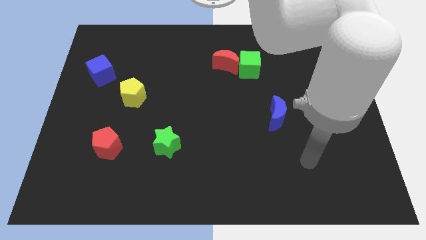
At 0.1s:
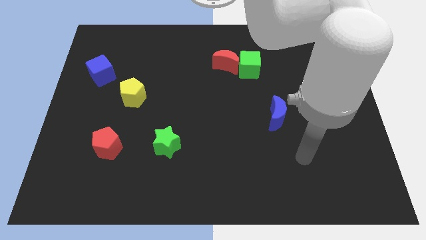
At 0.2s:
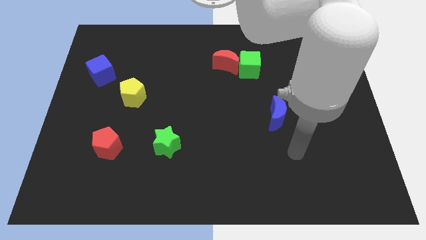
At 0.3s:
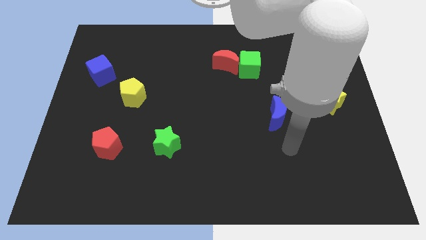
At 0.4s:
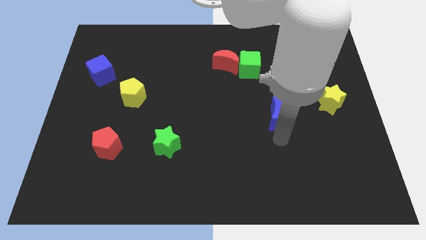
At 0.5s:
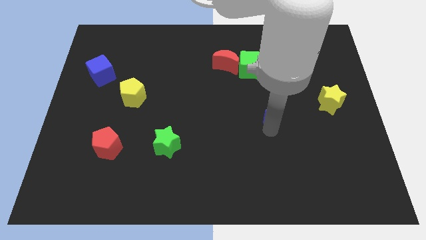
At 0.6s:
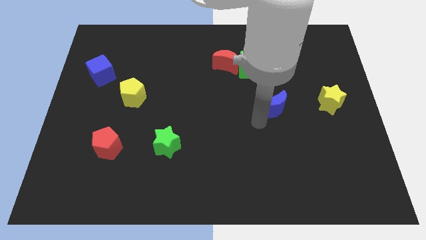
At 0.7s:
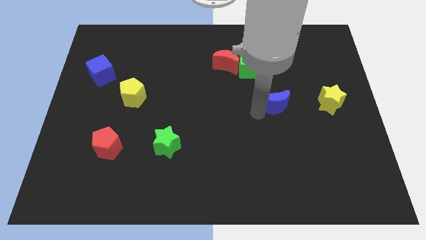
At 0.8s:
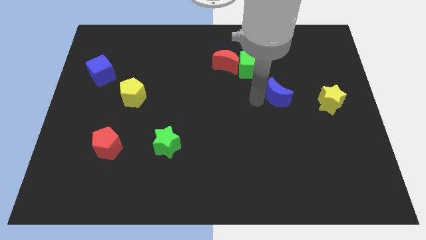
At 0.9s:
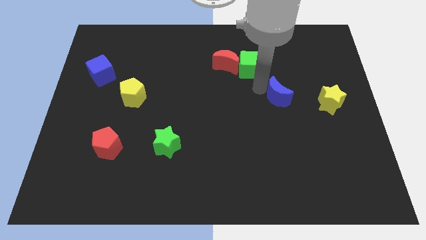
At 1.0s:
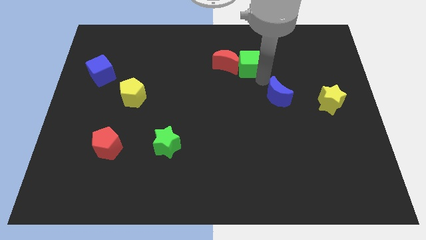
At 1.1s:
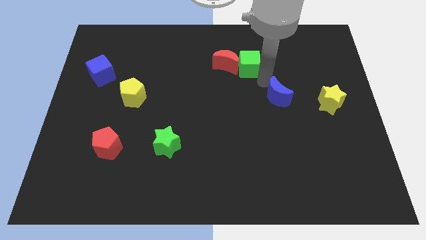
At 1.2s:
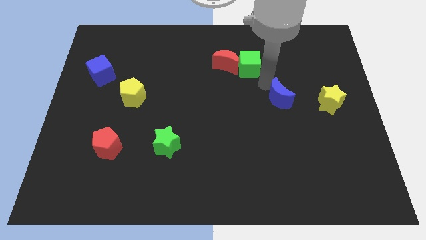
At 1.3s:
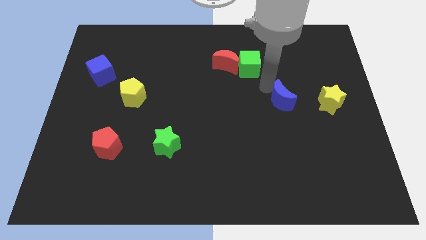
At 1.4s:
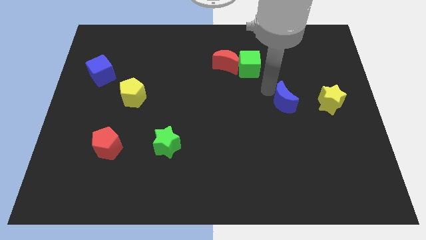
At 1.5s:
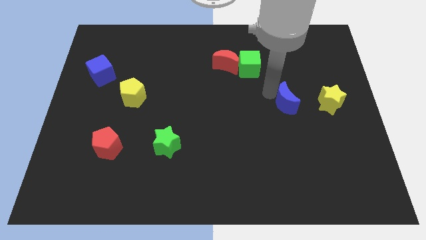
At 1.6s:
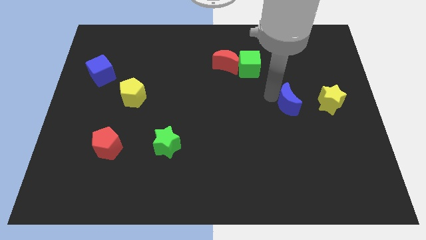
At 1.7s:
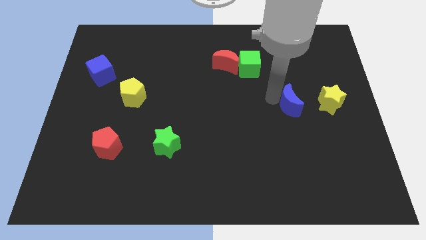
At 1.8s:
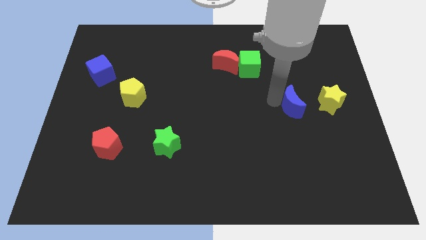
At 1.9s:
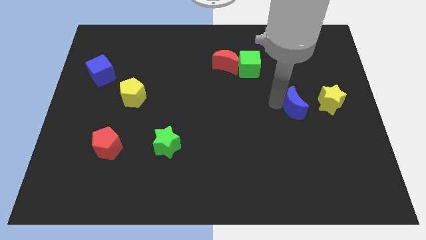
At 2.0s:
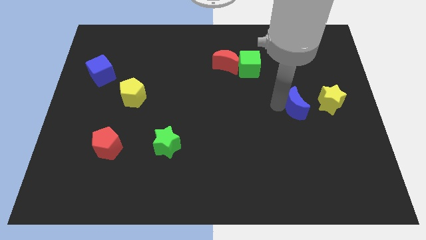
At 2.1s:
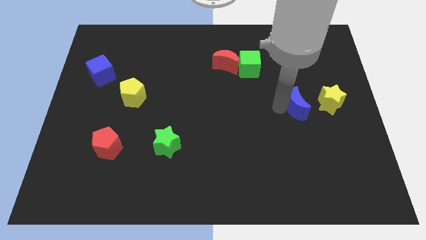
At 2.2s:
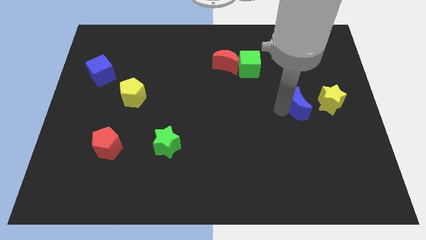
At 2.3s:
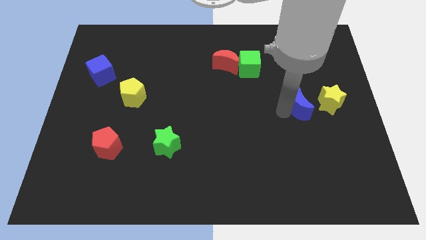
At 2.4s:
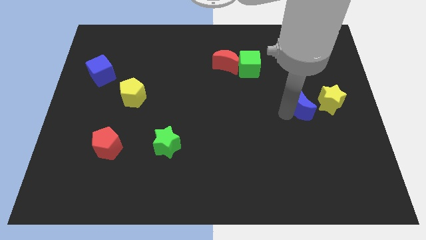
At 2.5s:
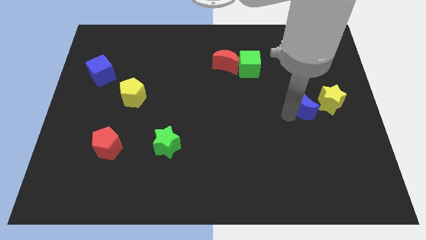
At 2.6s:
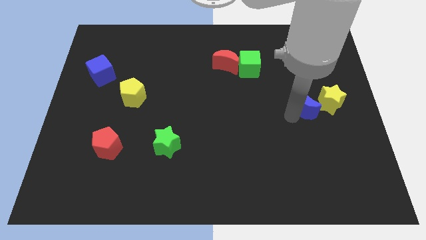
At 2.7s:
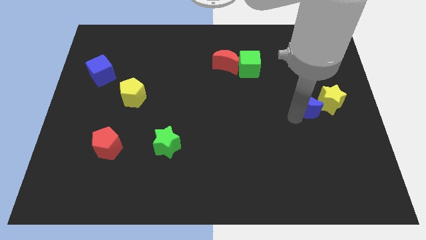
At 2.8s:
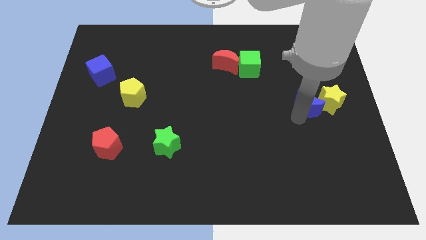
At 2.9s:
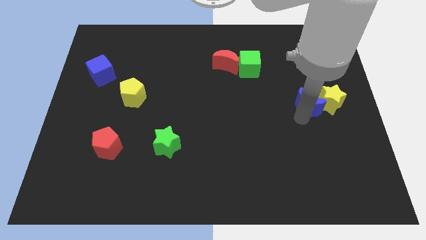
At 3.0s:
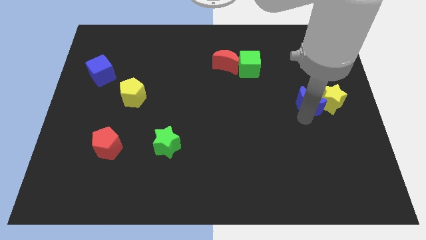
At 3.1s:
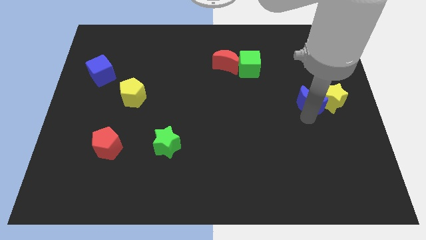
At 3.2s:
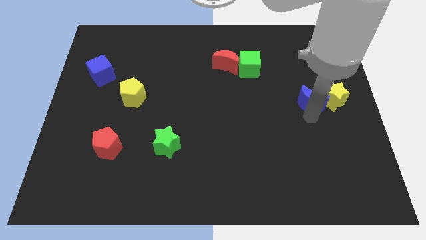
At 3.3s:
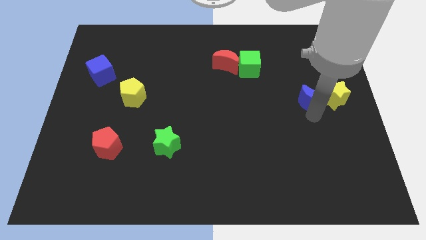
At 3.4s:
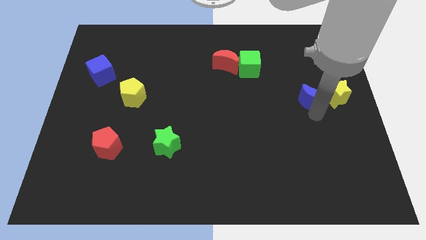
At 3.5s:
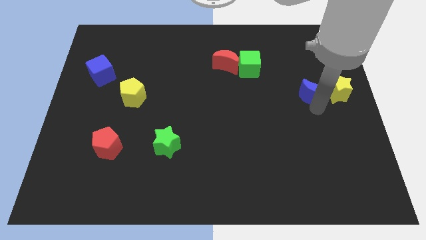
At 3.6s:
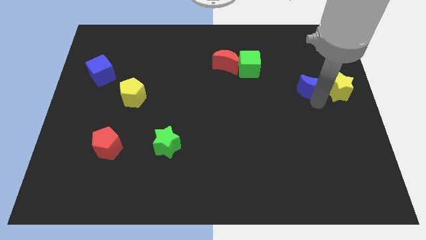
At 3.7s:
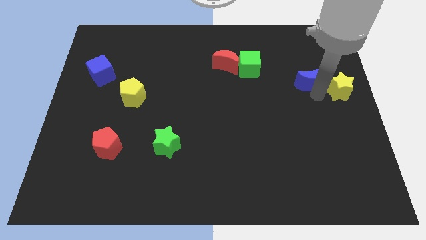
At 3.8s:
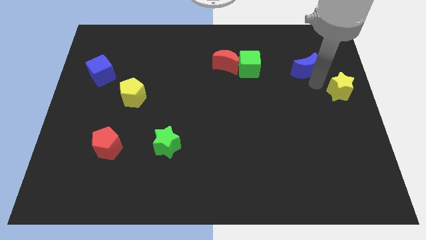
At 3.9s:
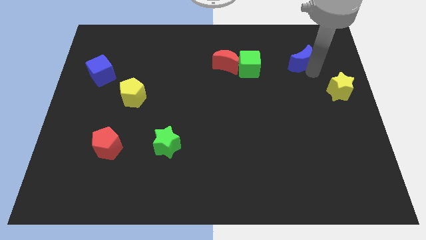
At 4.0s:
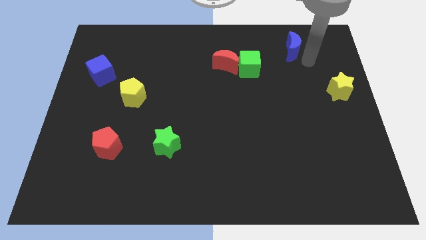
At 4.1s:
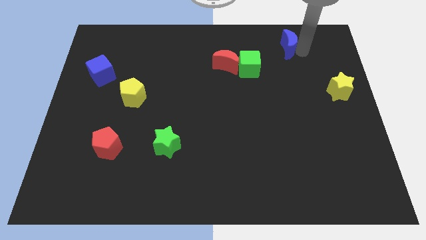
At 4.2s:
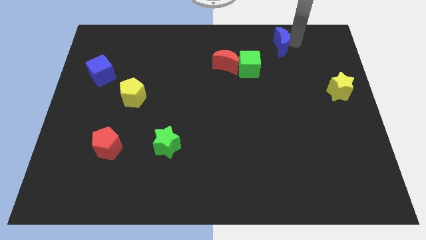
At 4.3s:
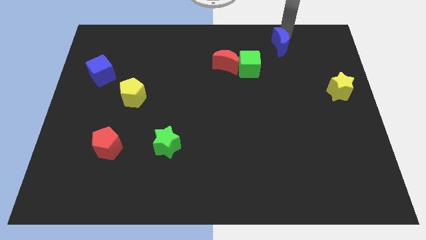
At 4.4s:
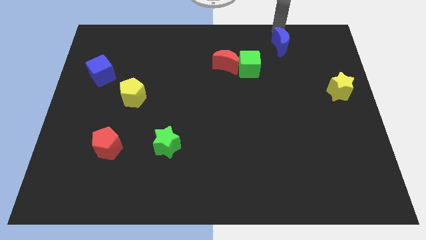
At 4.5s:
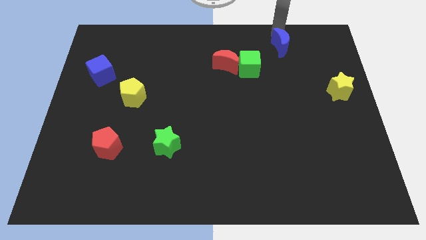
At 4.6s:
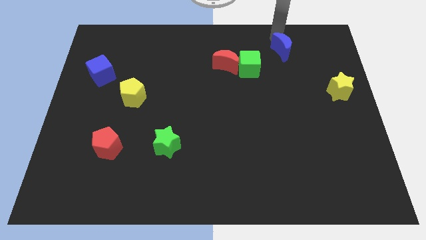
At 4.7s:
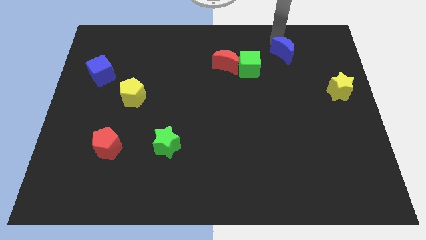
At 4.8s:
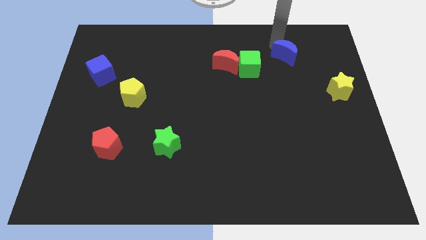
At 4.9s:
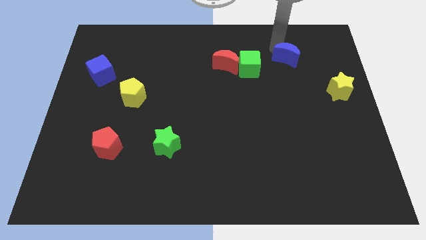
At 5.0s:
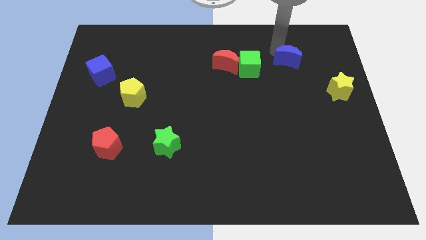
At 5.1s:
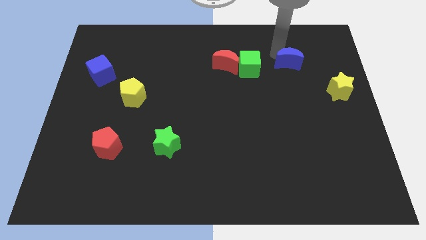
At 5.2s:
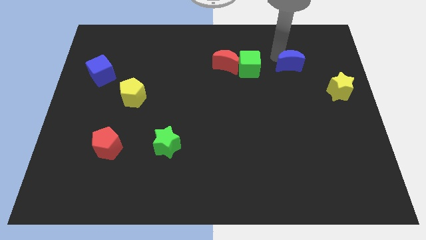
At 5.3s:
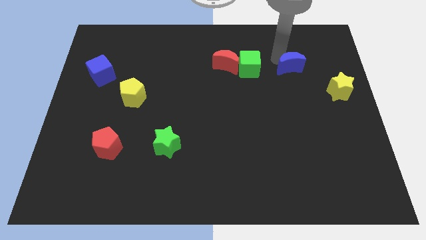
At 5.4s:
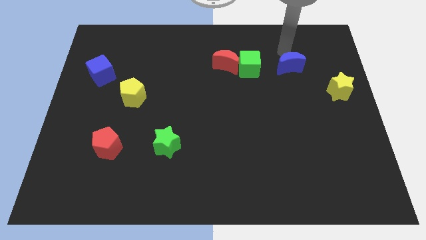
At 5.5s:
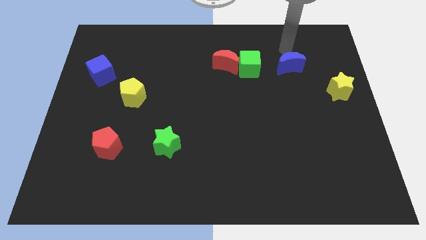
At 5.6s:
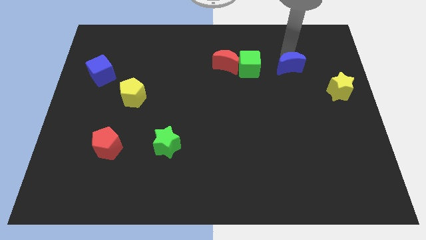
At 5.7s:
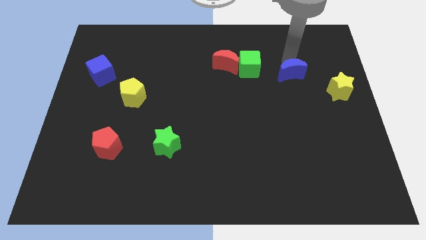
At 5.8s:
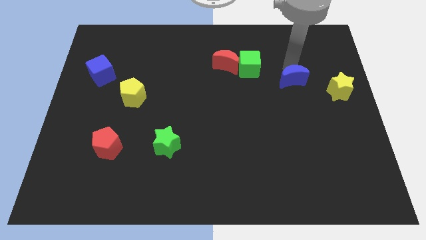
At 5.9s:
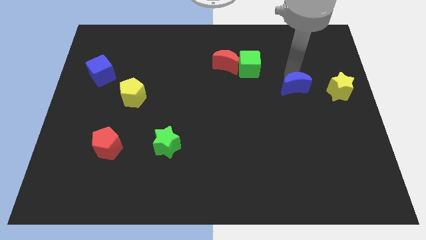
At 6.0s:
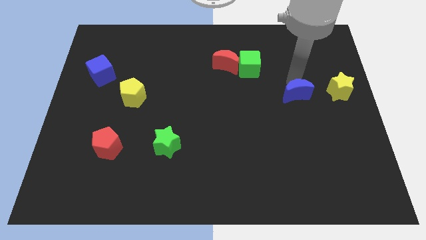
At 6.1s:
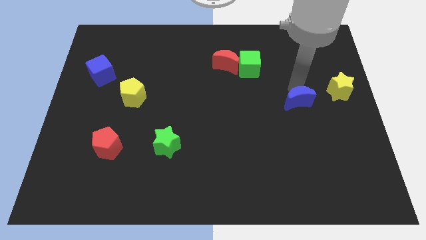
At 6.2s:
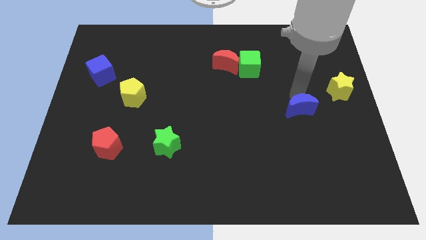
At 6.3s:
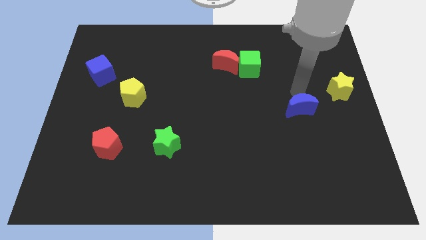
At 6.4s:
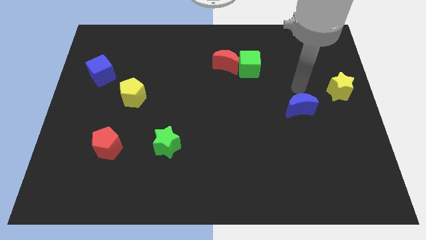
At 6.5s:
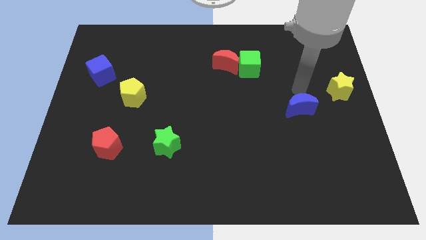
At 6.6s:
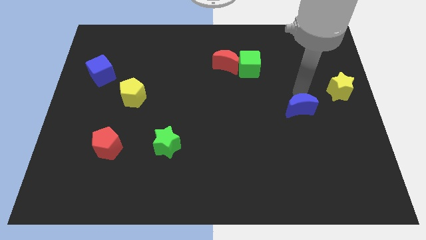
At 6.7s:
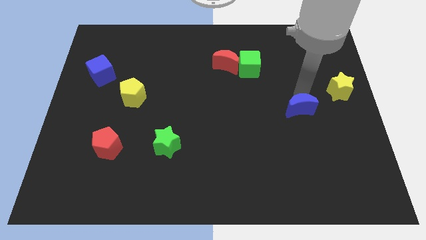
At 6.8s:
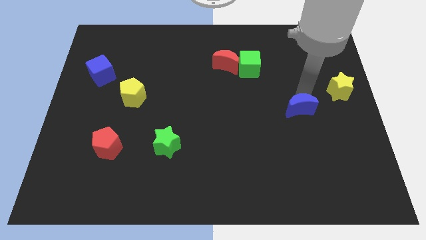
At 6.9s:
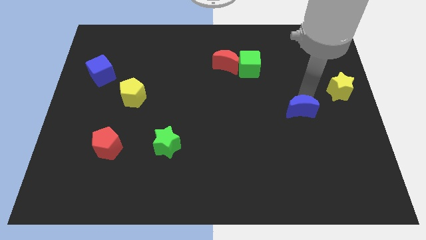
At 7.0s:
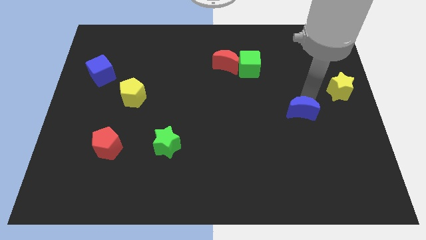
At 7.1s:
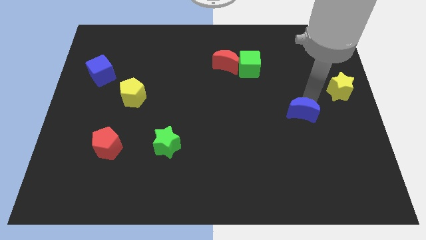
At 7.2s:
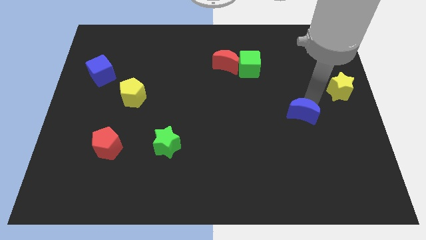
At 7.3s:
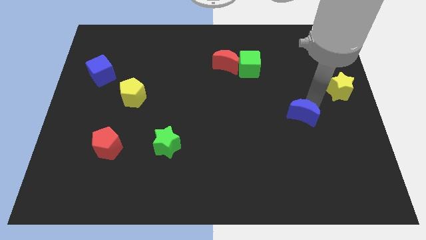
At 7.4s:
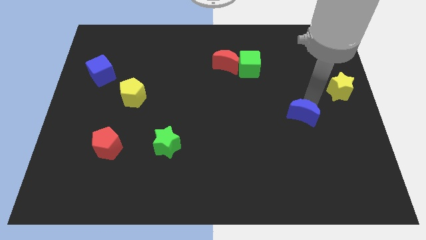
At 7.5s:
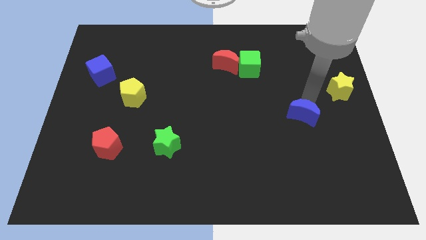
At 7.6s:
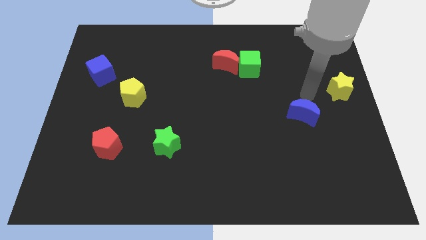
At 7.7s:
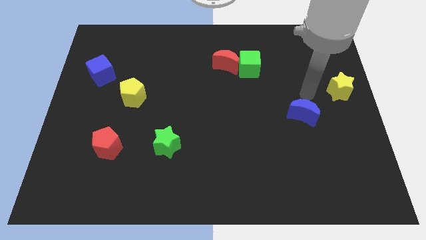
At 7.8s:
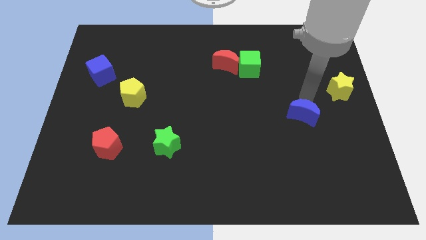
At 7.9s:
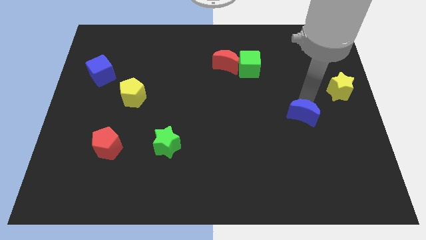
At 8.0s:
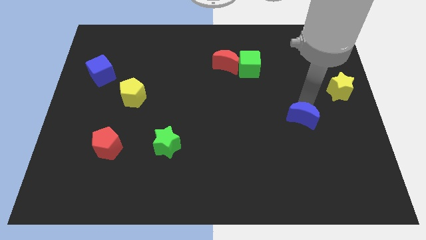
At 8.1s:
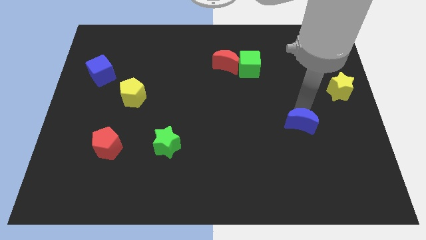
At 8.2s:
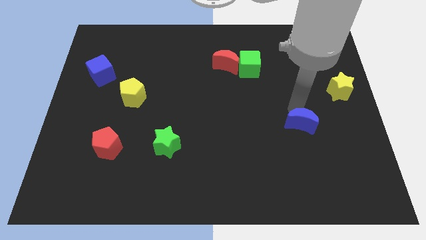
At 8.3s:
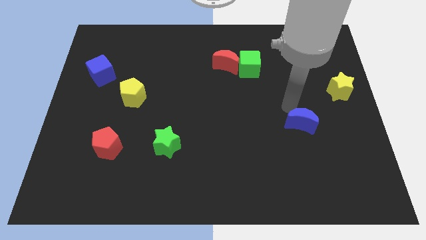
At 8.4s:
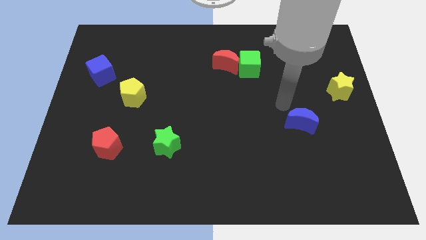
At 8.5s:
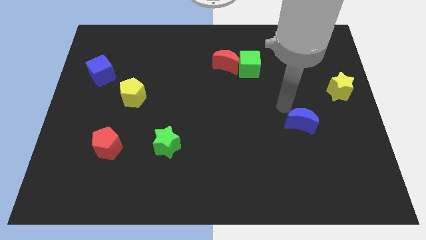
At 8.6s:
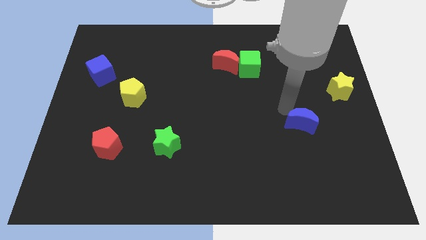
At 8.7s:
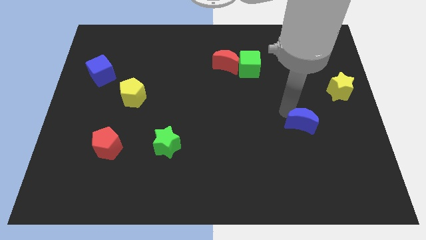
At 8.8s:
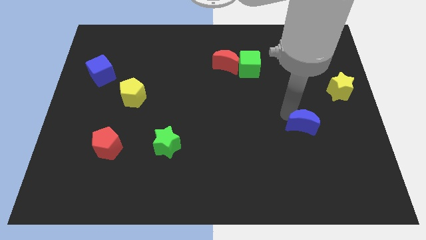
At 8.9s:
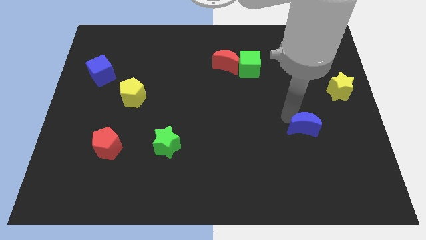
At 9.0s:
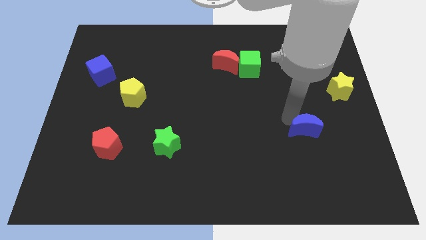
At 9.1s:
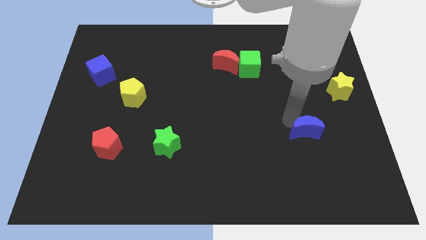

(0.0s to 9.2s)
push the blue moon a bit diagonally down and to the right
